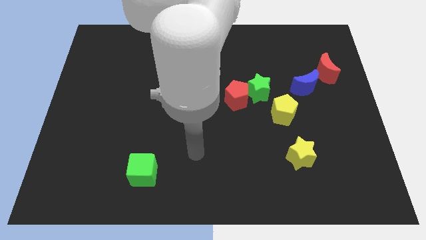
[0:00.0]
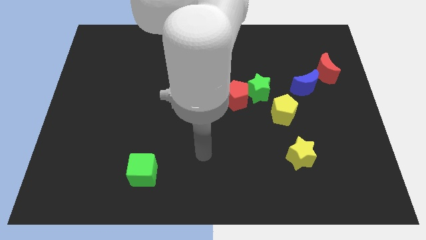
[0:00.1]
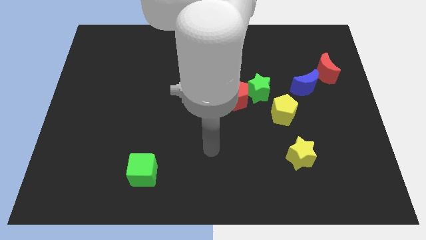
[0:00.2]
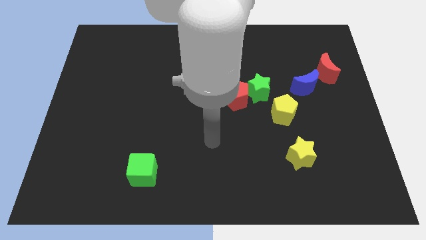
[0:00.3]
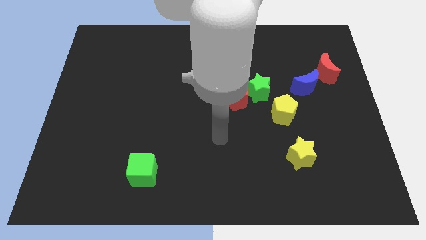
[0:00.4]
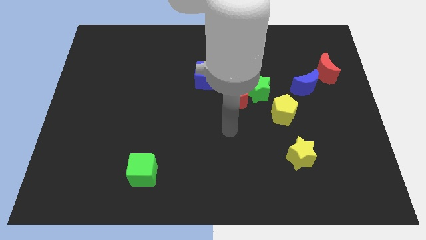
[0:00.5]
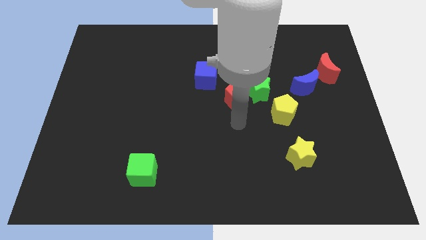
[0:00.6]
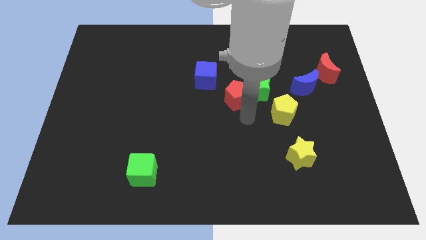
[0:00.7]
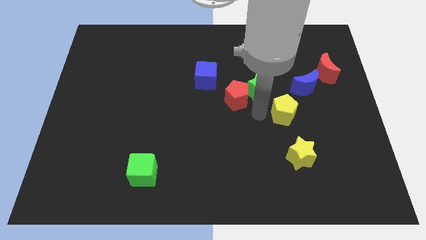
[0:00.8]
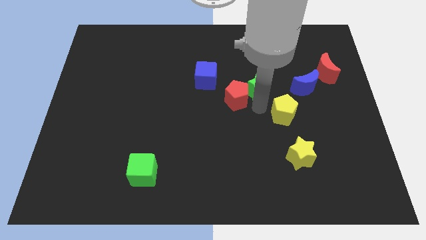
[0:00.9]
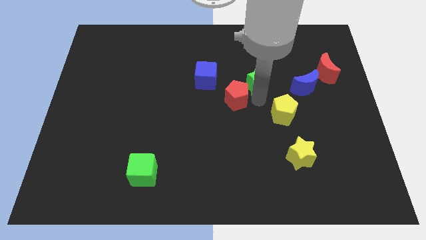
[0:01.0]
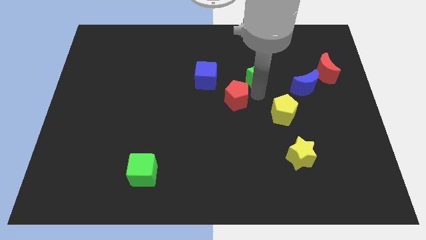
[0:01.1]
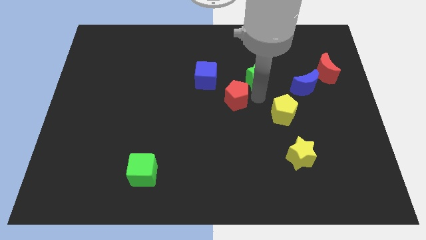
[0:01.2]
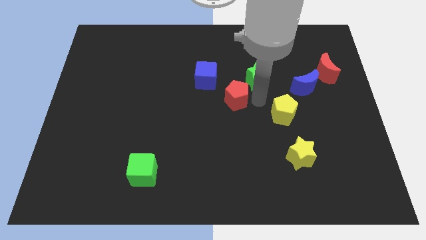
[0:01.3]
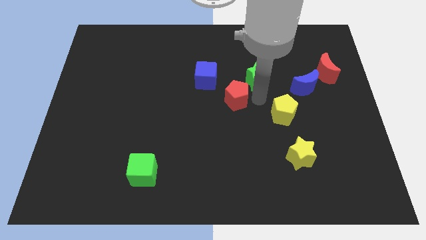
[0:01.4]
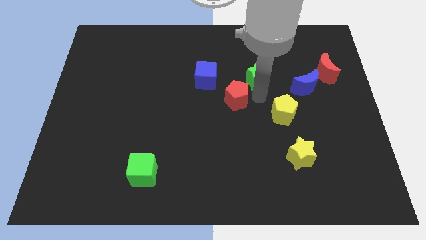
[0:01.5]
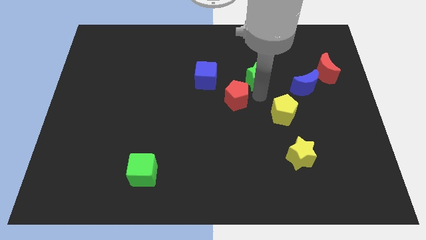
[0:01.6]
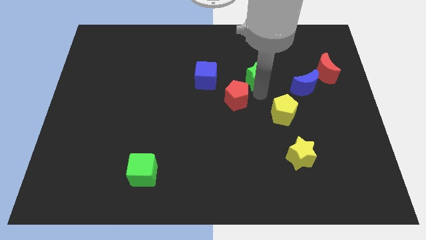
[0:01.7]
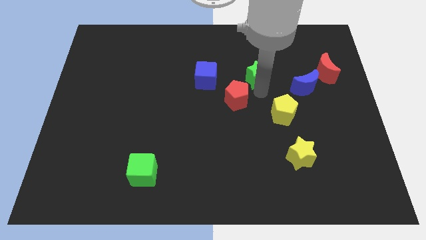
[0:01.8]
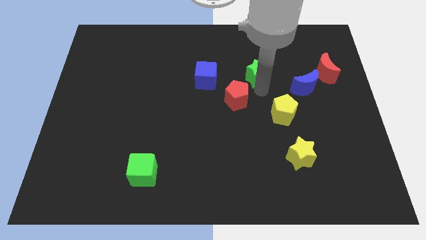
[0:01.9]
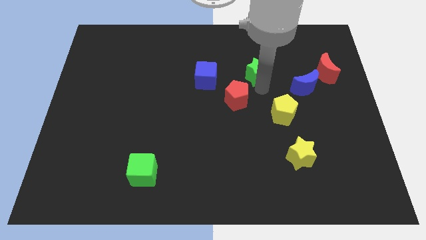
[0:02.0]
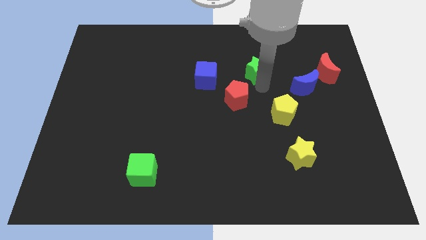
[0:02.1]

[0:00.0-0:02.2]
move the green star away from the red pentagon and yellow pentagon

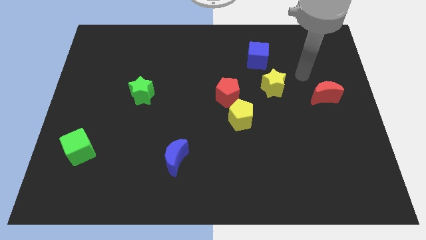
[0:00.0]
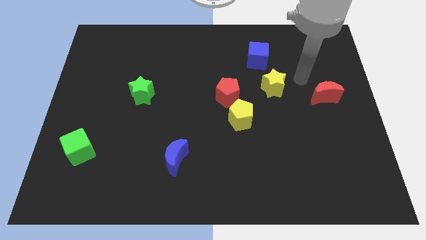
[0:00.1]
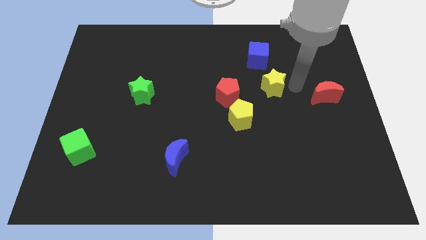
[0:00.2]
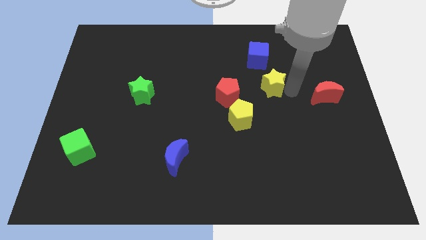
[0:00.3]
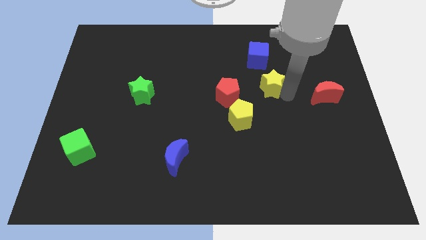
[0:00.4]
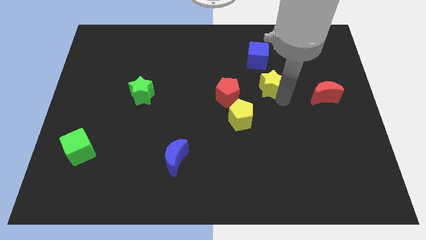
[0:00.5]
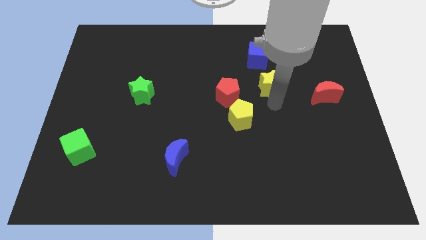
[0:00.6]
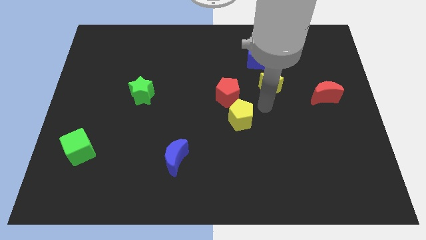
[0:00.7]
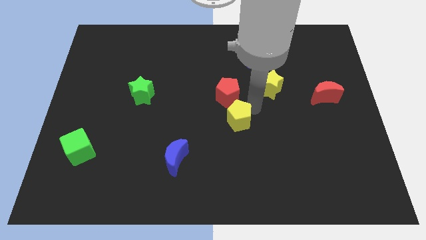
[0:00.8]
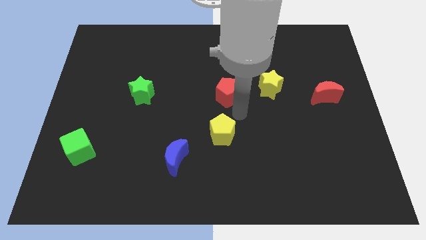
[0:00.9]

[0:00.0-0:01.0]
separate the red pentagon from the yellow pentagon

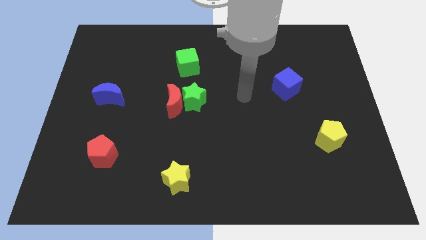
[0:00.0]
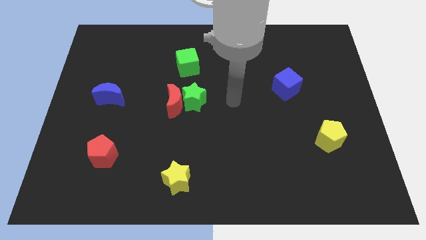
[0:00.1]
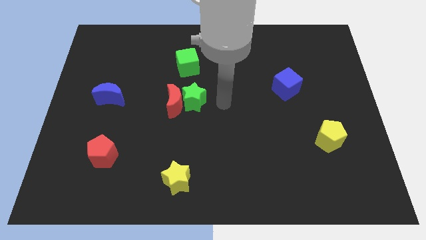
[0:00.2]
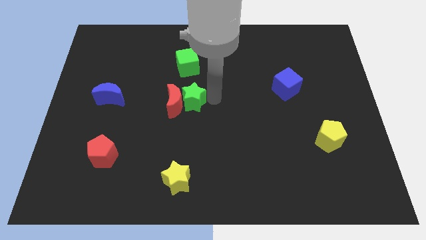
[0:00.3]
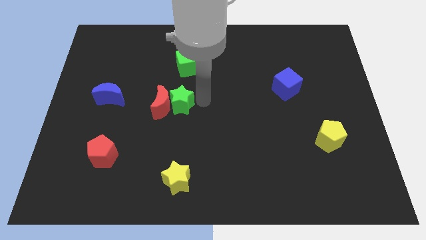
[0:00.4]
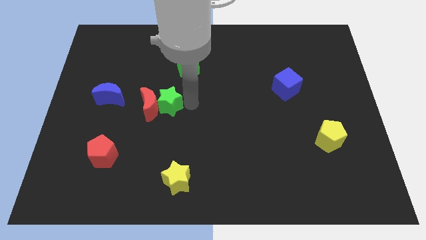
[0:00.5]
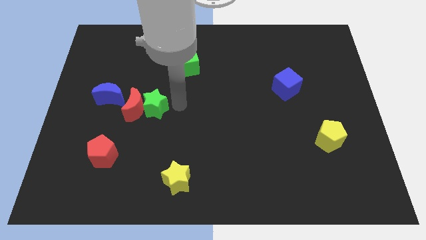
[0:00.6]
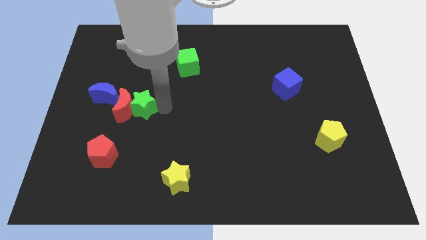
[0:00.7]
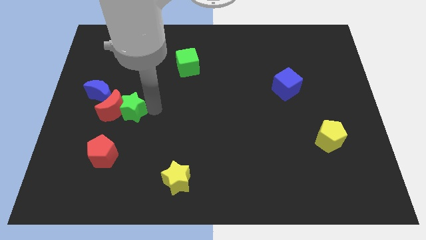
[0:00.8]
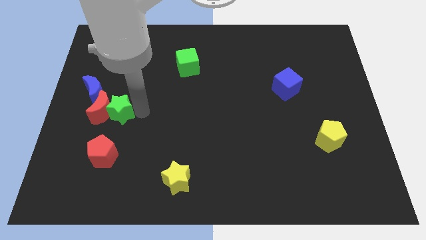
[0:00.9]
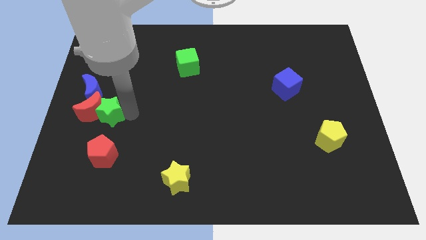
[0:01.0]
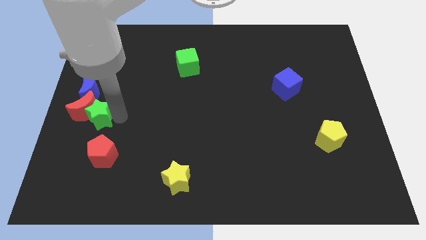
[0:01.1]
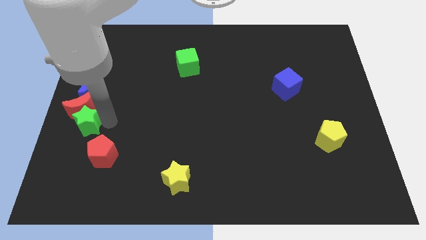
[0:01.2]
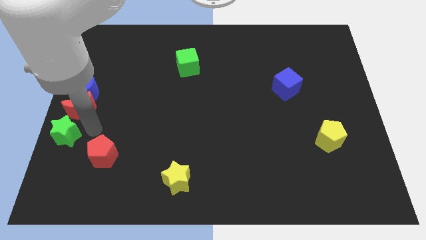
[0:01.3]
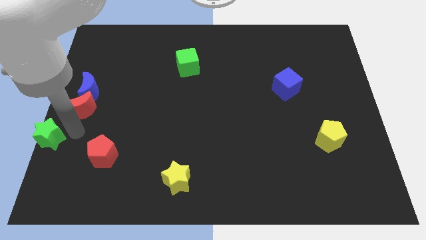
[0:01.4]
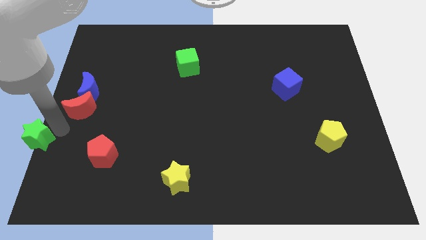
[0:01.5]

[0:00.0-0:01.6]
move the red moon away from the green star

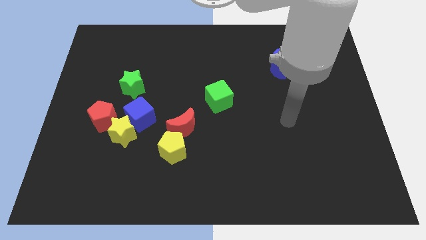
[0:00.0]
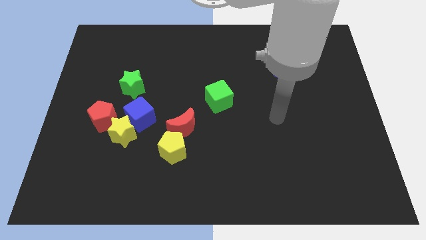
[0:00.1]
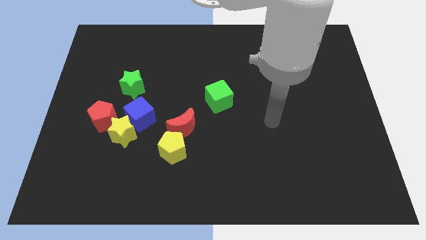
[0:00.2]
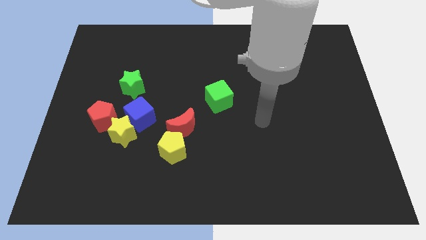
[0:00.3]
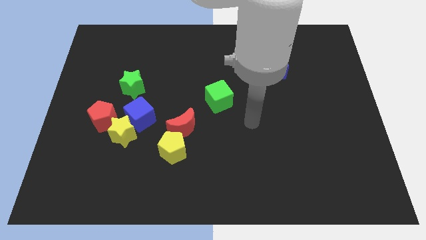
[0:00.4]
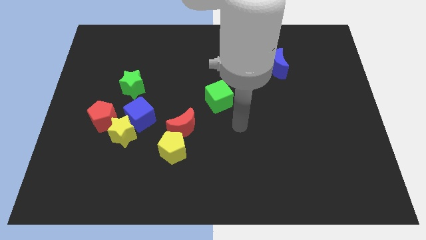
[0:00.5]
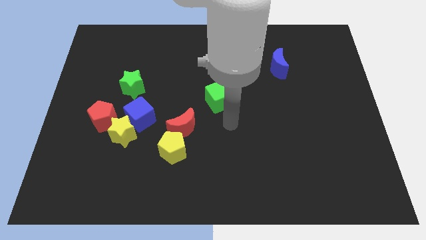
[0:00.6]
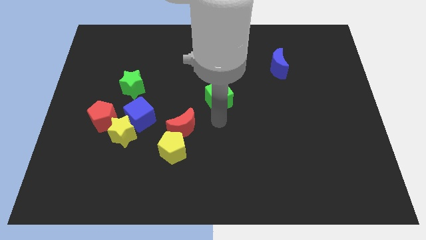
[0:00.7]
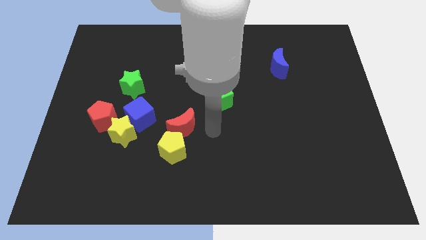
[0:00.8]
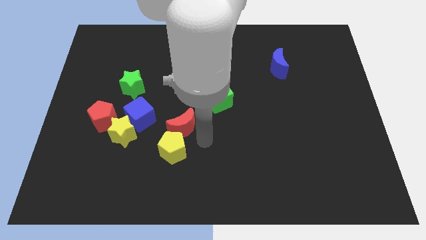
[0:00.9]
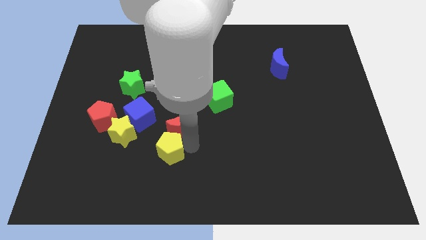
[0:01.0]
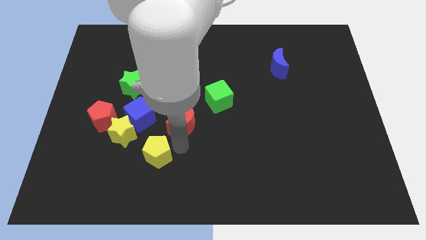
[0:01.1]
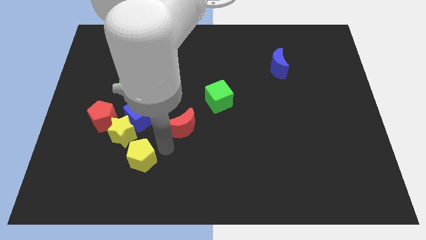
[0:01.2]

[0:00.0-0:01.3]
pull the red moon apart from the yellow pentagon

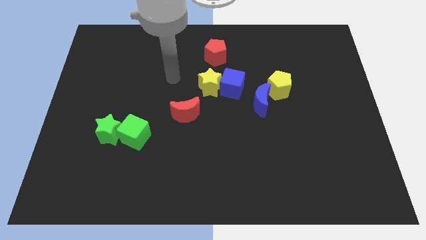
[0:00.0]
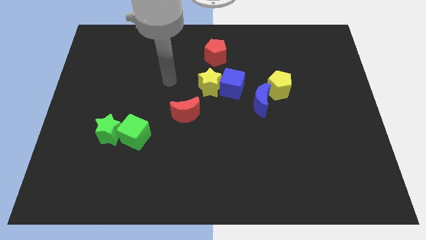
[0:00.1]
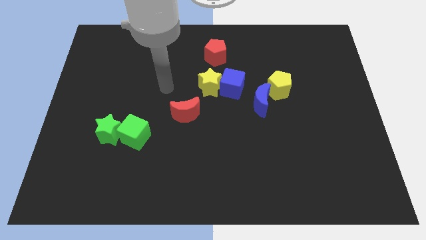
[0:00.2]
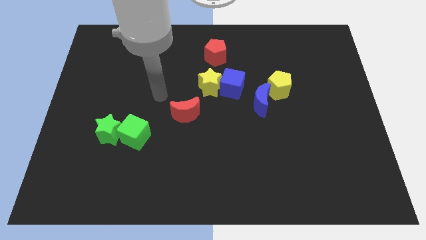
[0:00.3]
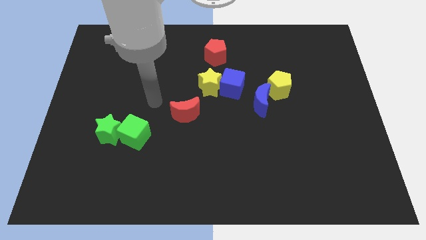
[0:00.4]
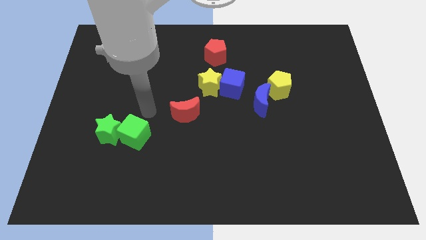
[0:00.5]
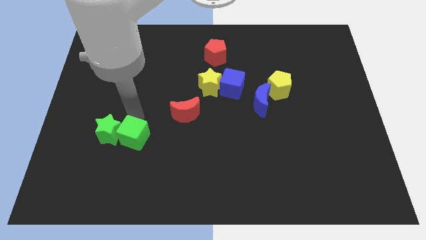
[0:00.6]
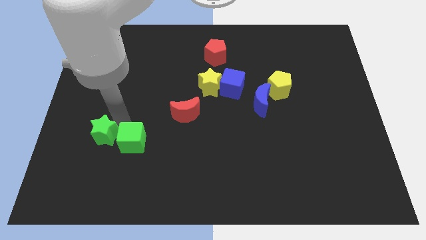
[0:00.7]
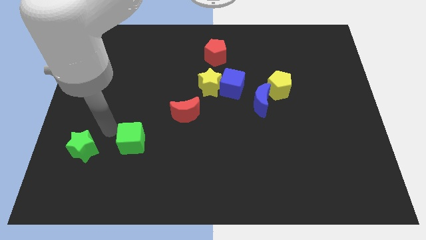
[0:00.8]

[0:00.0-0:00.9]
pull the green cube apart from the green star

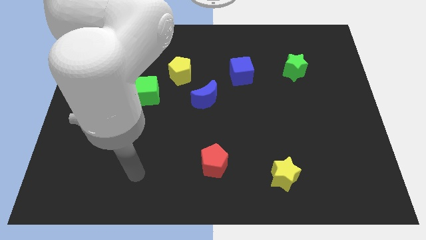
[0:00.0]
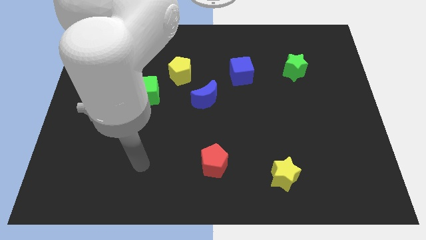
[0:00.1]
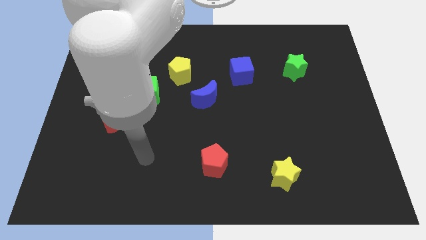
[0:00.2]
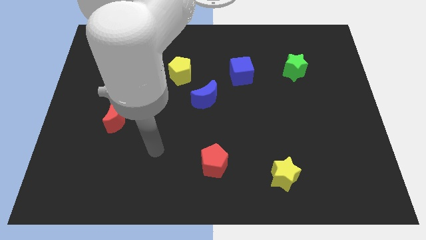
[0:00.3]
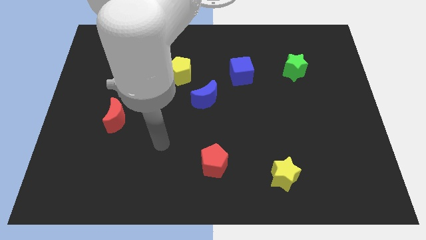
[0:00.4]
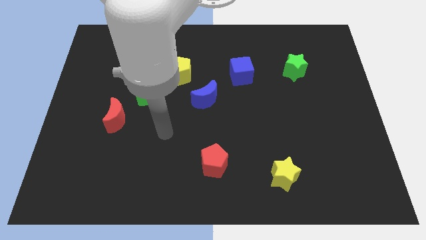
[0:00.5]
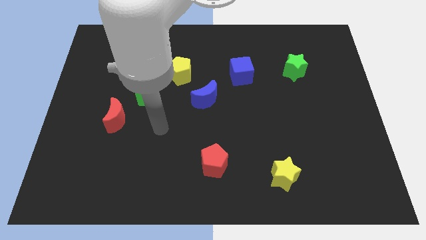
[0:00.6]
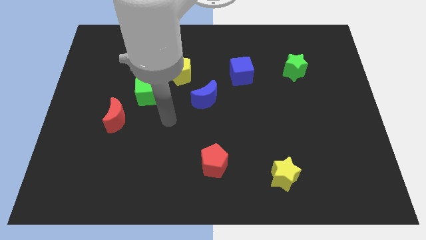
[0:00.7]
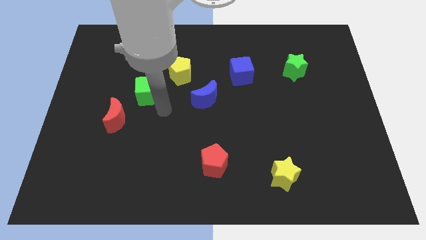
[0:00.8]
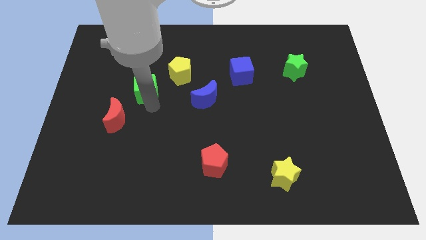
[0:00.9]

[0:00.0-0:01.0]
move the red moon away from the green cube

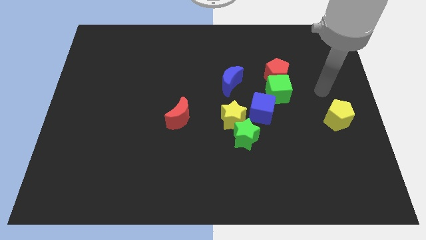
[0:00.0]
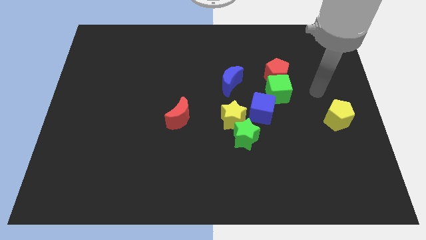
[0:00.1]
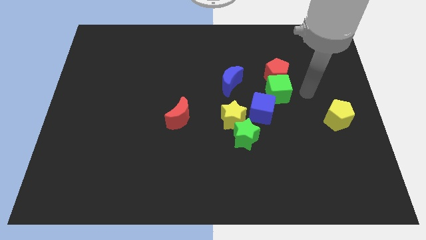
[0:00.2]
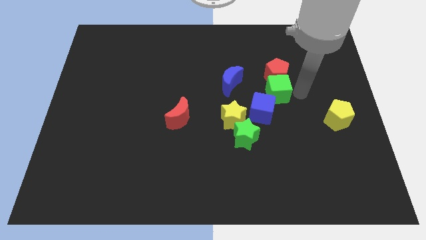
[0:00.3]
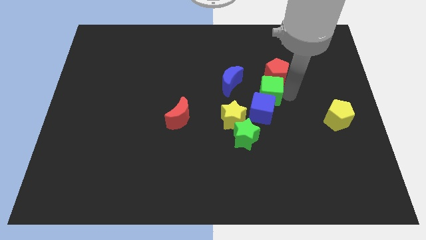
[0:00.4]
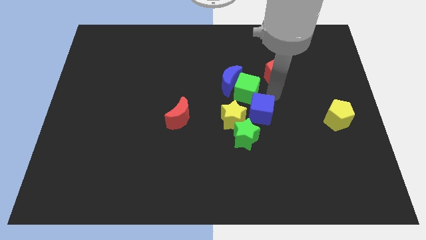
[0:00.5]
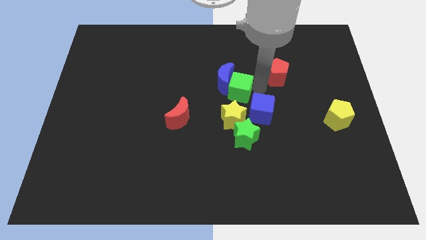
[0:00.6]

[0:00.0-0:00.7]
pull the red pentagon apart from the green cube

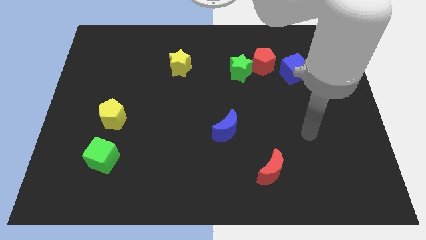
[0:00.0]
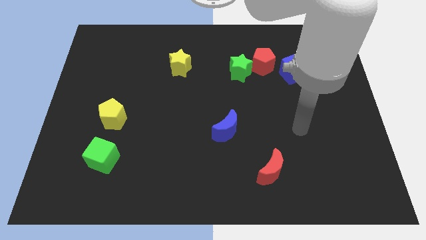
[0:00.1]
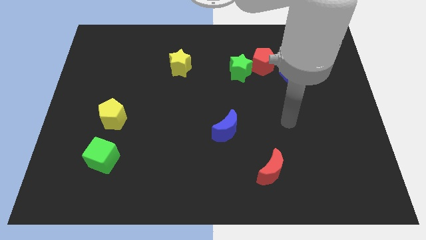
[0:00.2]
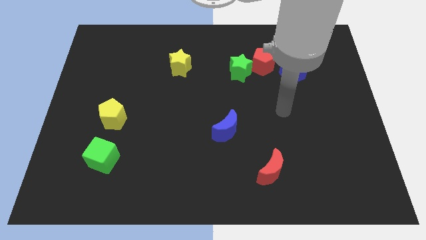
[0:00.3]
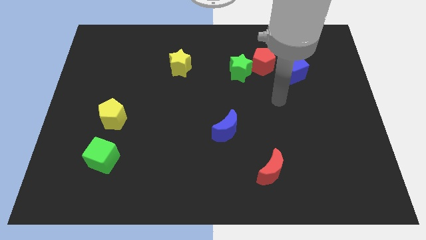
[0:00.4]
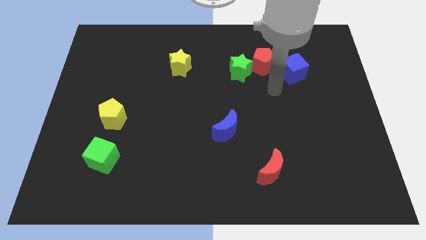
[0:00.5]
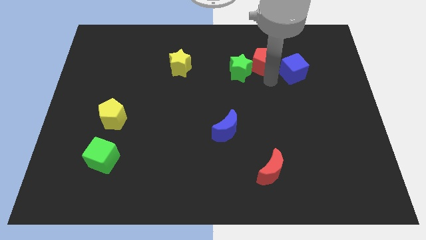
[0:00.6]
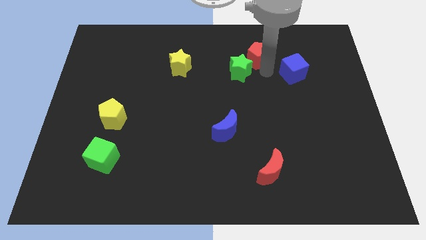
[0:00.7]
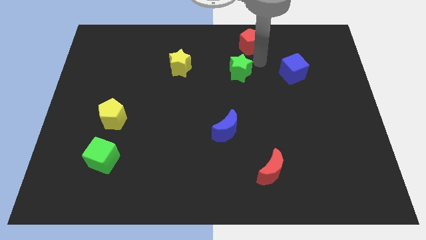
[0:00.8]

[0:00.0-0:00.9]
move the green star away from the red pentagon
